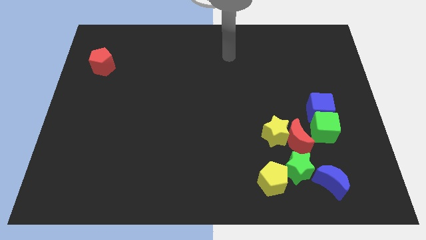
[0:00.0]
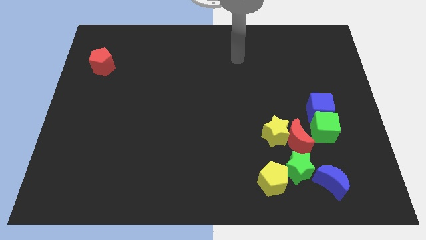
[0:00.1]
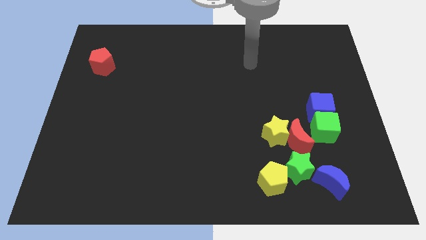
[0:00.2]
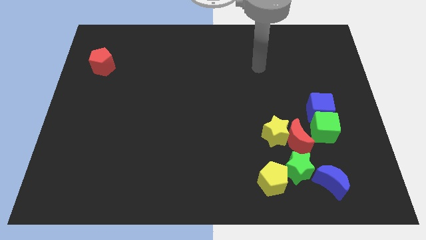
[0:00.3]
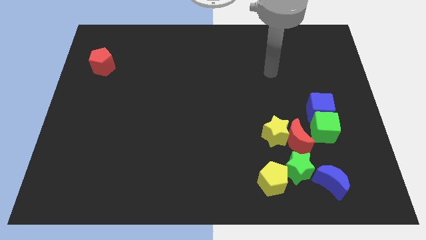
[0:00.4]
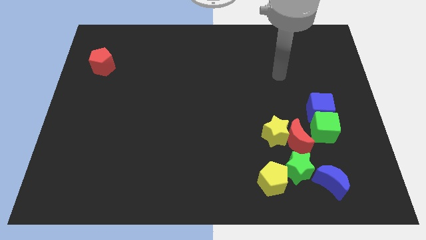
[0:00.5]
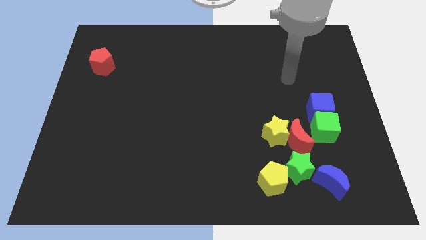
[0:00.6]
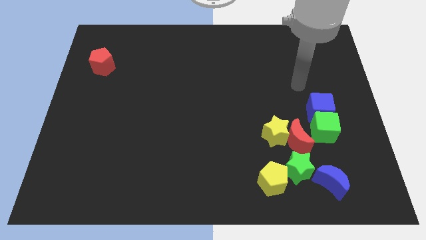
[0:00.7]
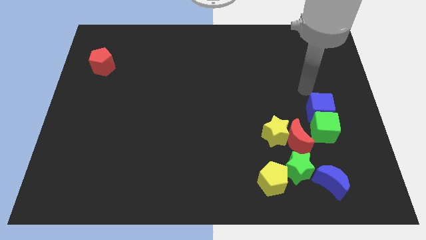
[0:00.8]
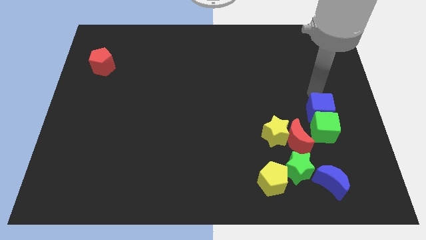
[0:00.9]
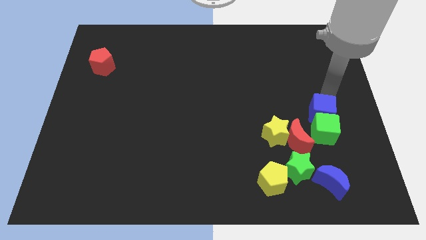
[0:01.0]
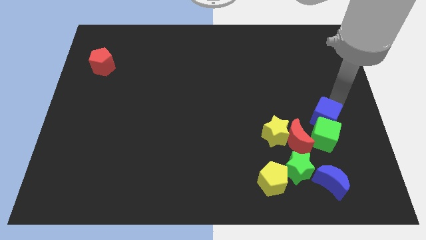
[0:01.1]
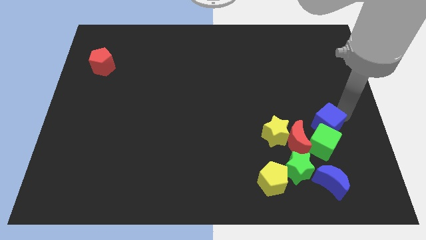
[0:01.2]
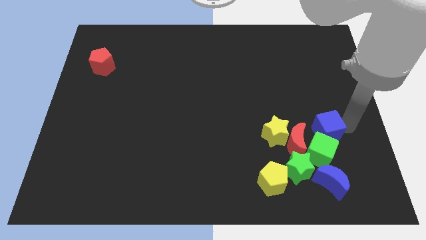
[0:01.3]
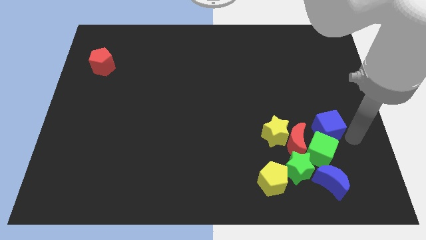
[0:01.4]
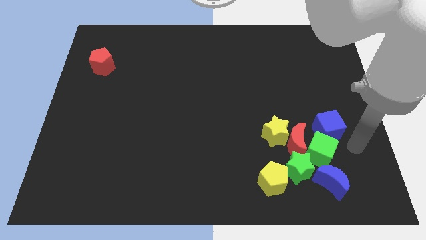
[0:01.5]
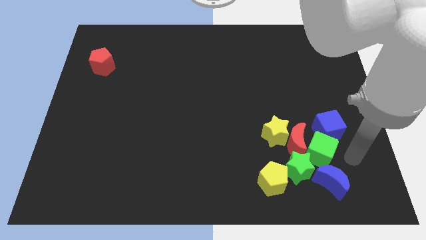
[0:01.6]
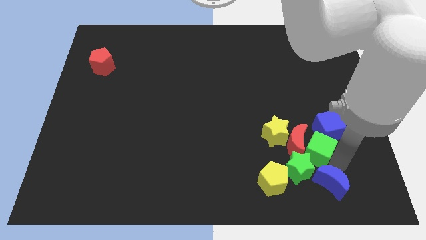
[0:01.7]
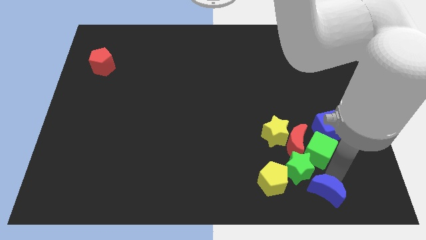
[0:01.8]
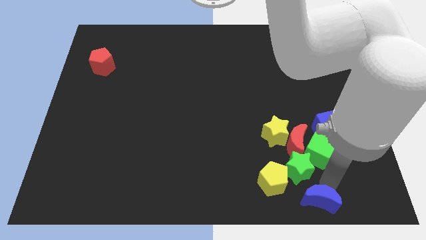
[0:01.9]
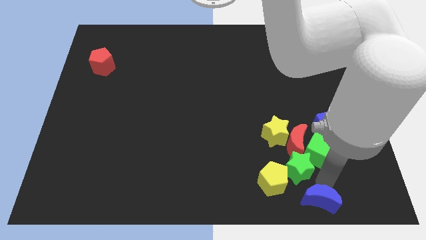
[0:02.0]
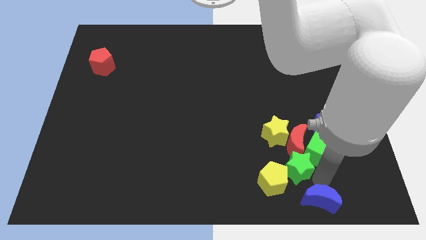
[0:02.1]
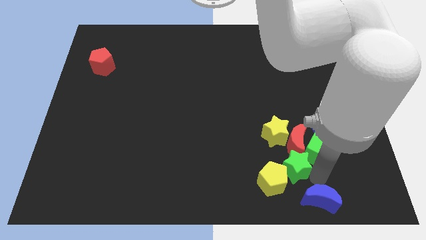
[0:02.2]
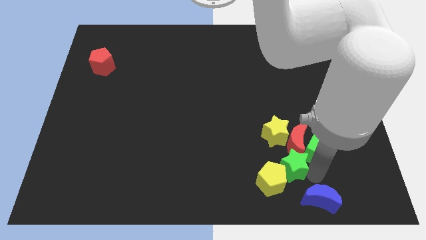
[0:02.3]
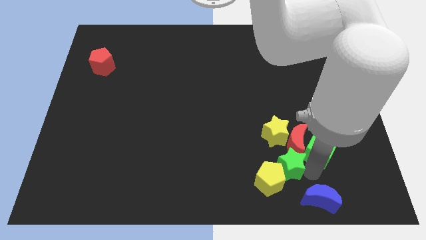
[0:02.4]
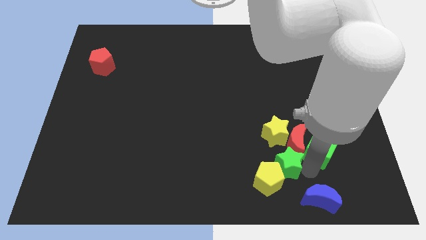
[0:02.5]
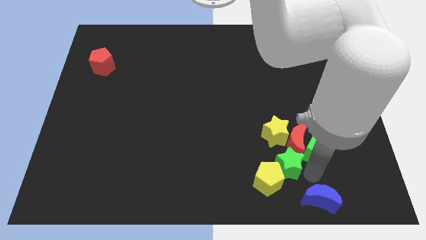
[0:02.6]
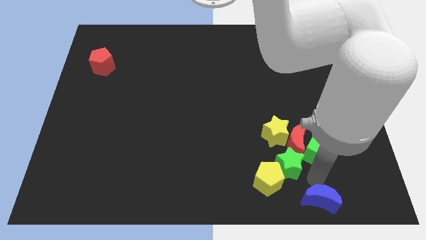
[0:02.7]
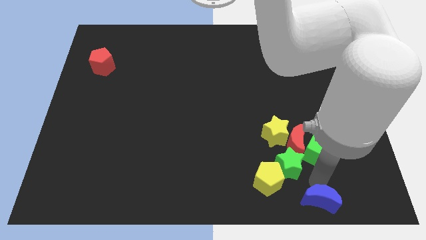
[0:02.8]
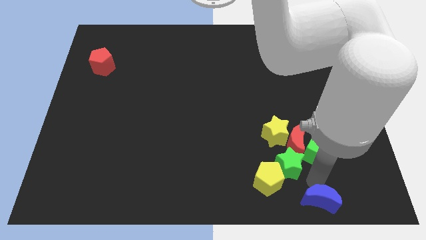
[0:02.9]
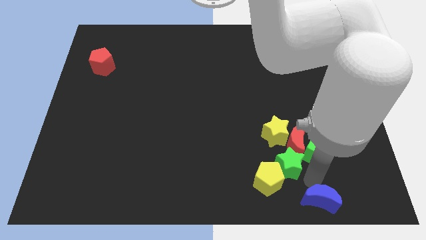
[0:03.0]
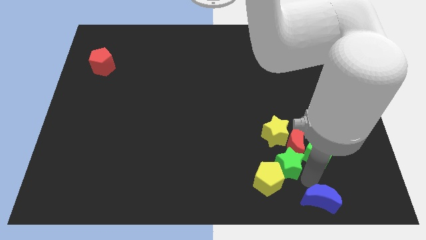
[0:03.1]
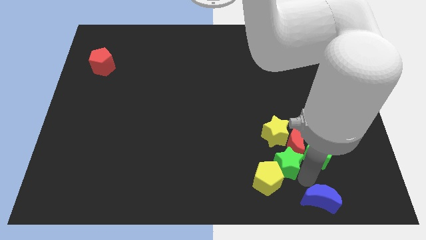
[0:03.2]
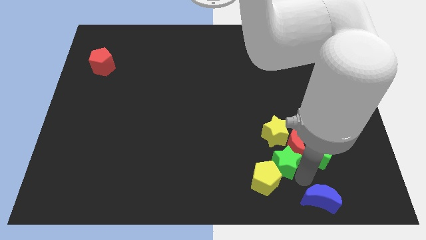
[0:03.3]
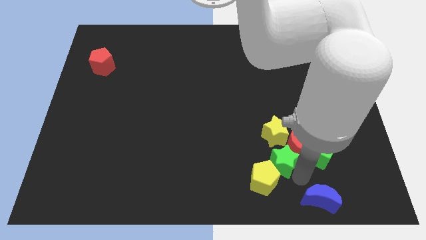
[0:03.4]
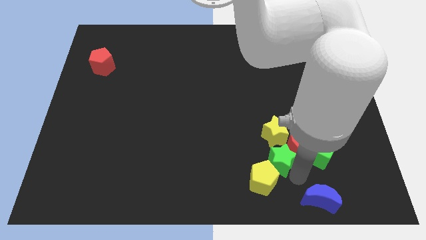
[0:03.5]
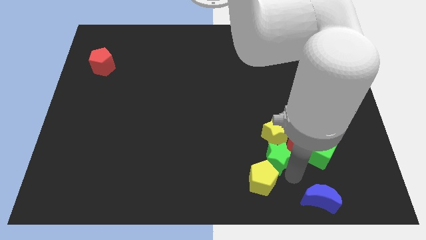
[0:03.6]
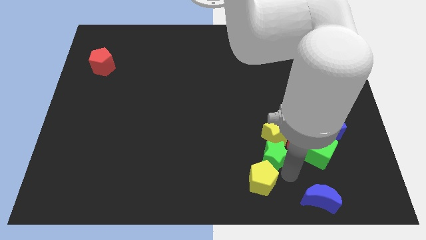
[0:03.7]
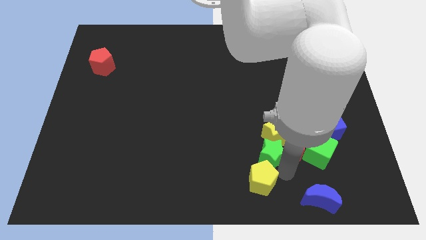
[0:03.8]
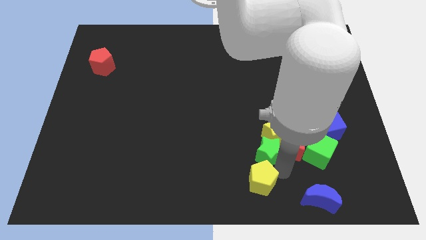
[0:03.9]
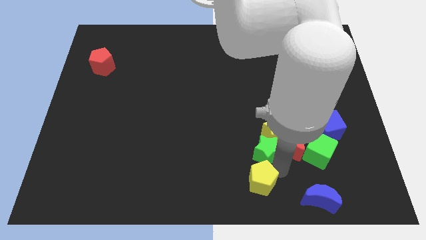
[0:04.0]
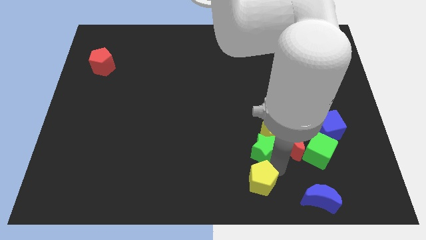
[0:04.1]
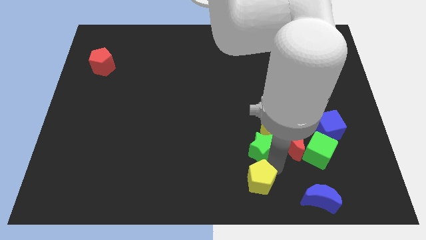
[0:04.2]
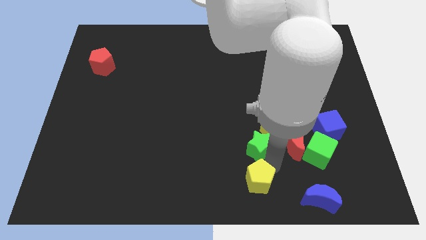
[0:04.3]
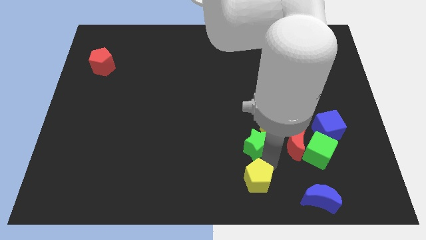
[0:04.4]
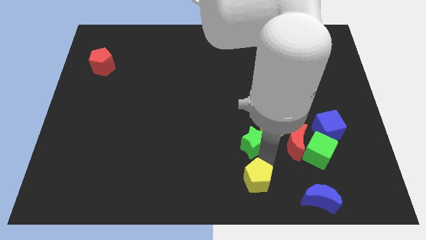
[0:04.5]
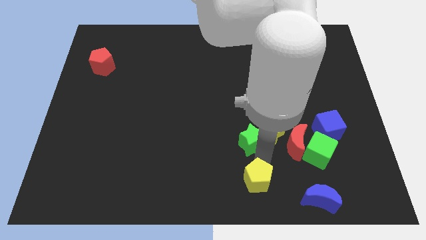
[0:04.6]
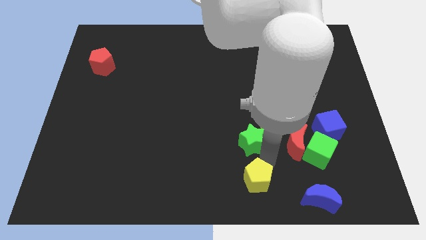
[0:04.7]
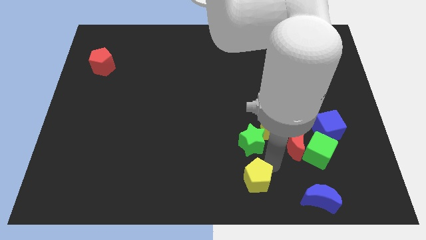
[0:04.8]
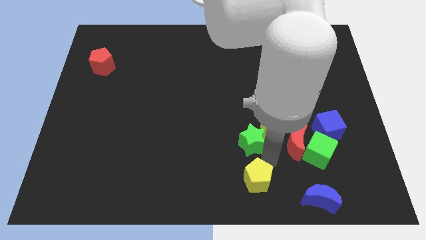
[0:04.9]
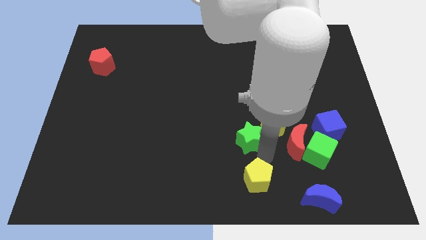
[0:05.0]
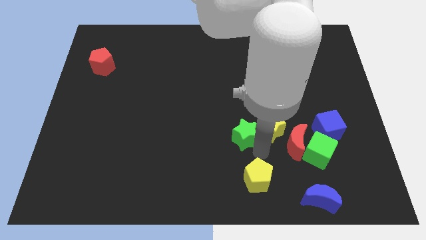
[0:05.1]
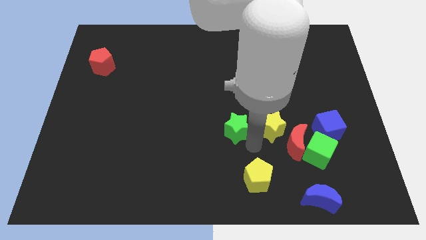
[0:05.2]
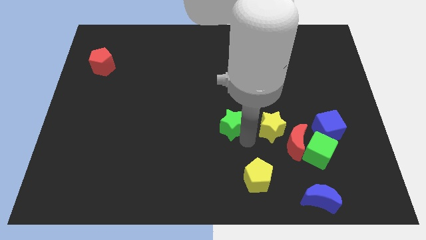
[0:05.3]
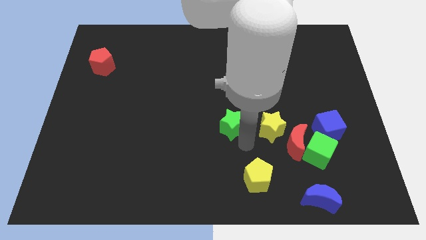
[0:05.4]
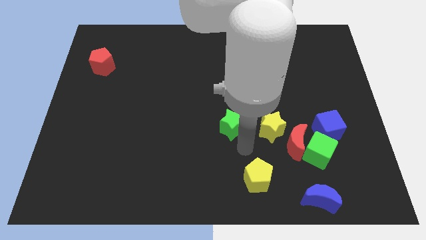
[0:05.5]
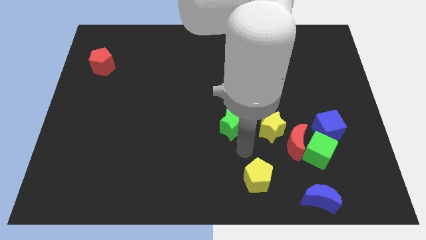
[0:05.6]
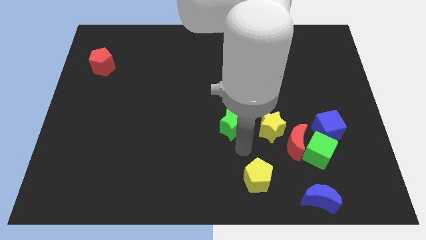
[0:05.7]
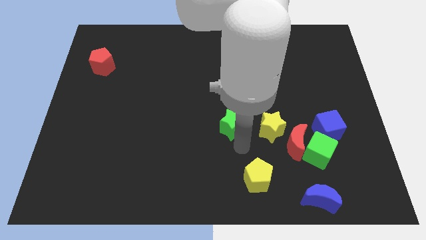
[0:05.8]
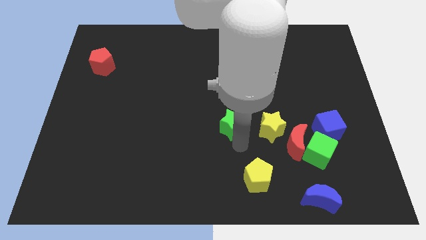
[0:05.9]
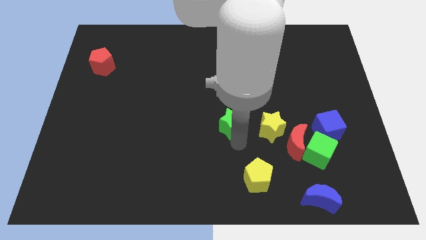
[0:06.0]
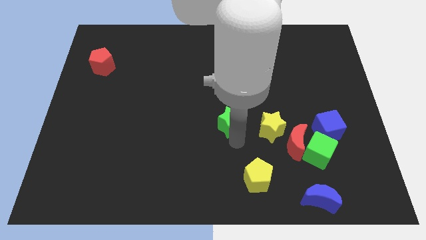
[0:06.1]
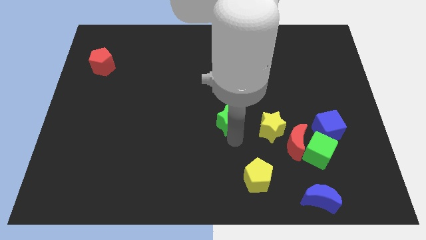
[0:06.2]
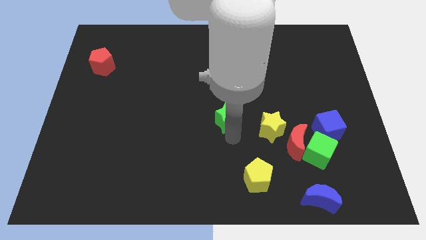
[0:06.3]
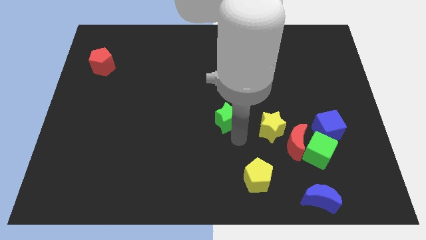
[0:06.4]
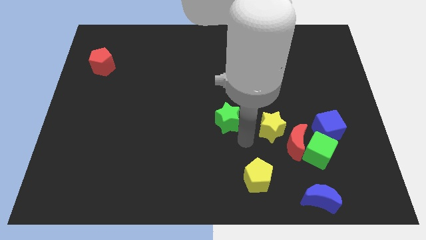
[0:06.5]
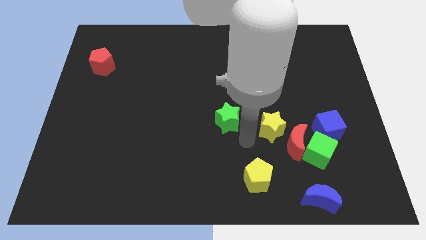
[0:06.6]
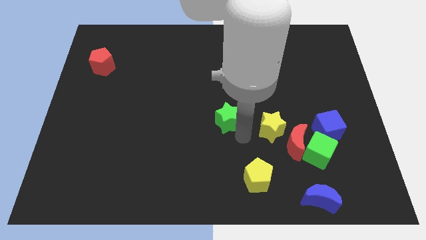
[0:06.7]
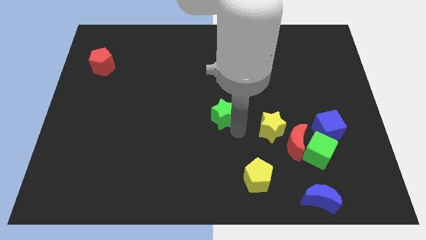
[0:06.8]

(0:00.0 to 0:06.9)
push the green star diagonally up and to the left

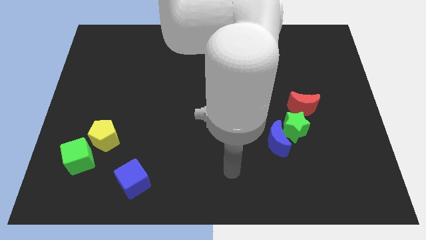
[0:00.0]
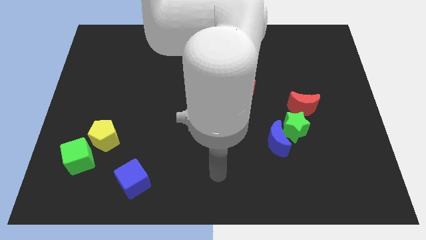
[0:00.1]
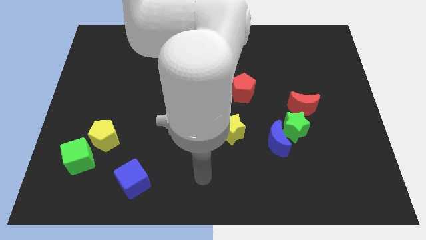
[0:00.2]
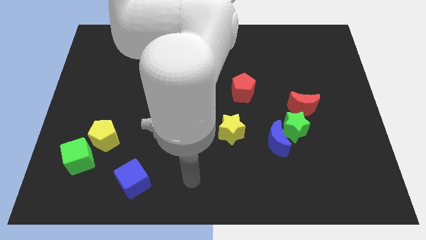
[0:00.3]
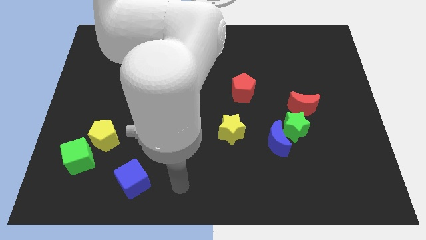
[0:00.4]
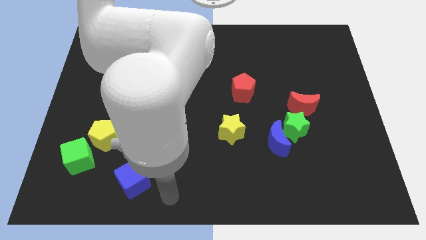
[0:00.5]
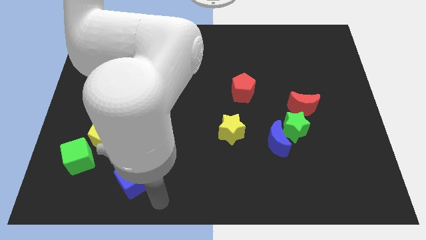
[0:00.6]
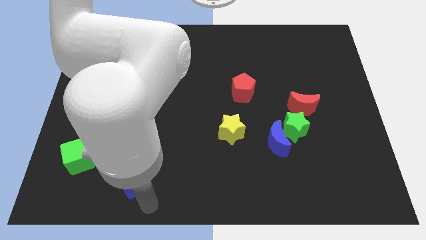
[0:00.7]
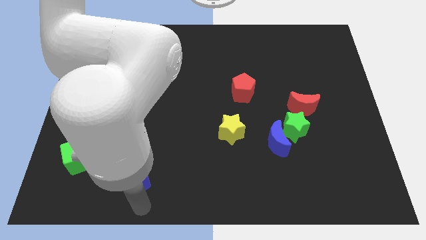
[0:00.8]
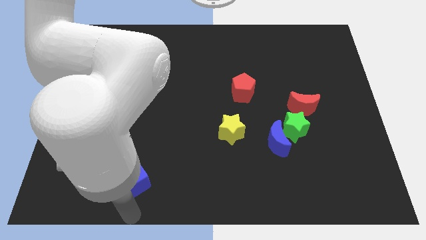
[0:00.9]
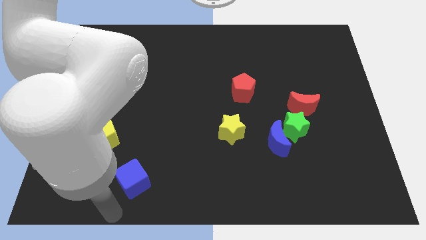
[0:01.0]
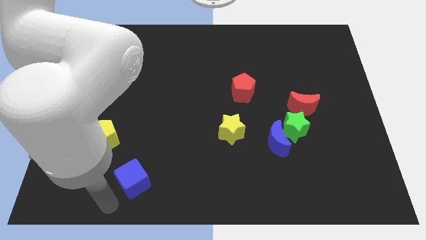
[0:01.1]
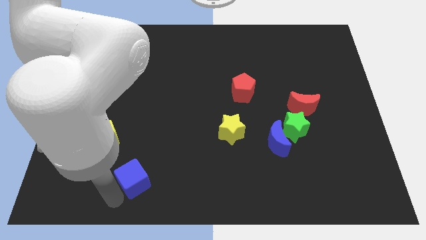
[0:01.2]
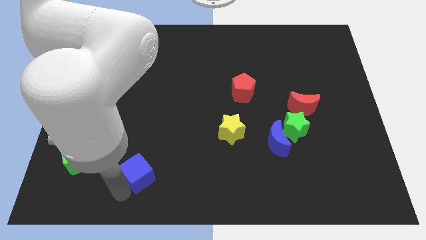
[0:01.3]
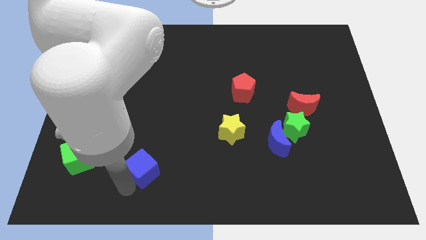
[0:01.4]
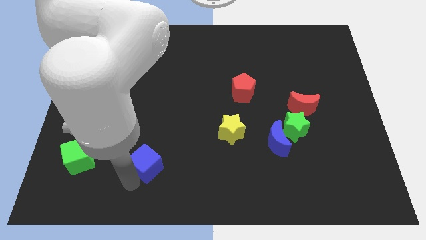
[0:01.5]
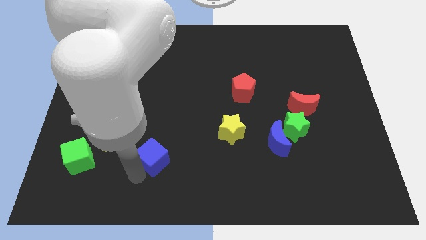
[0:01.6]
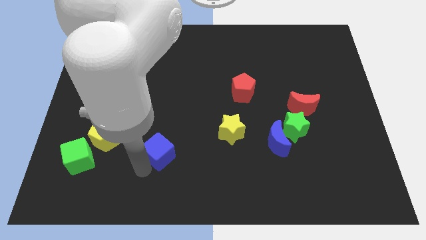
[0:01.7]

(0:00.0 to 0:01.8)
slightly move the blue cube up and then to the right
